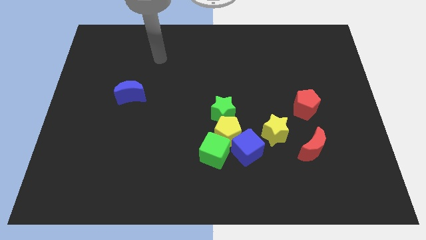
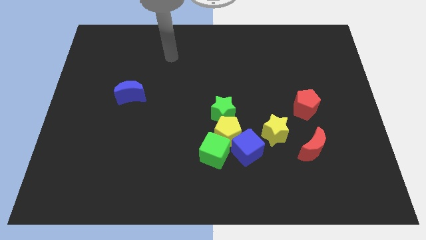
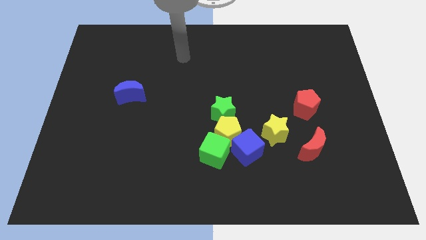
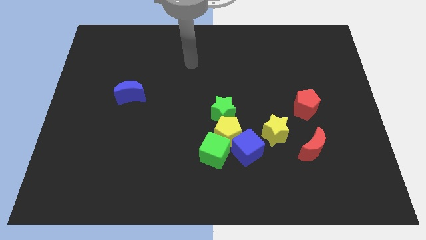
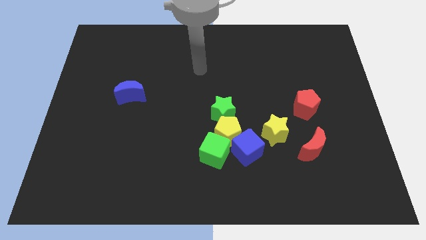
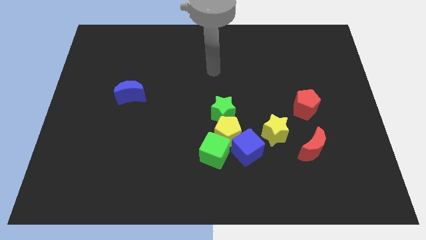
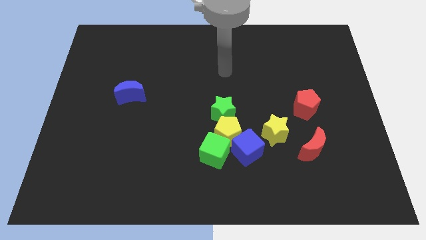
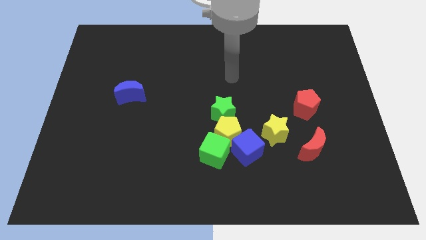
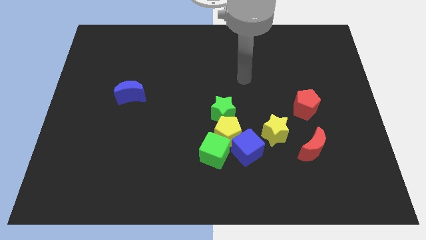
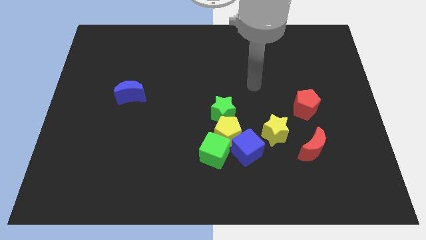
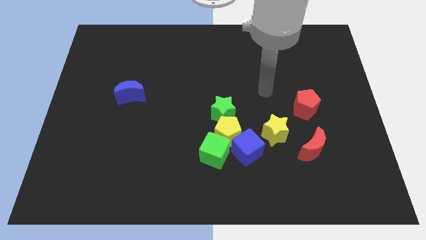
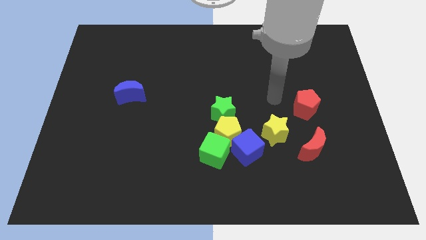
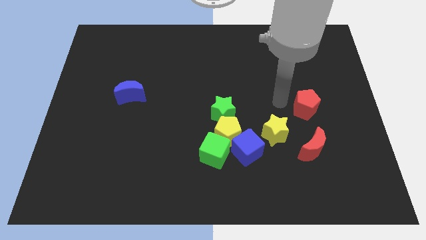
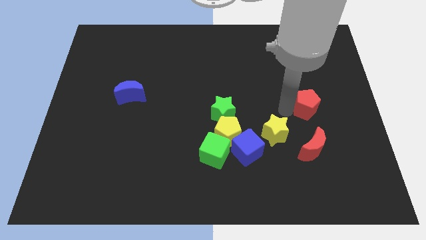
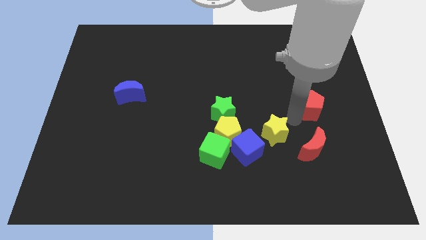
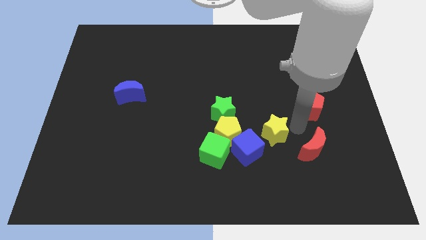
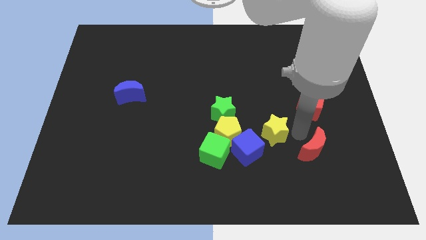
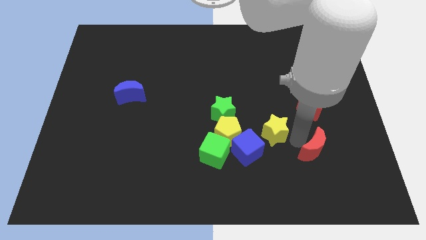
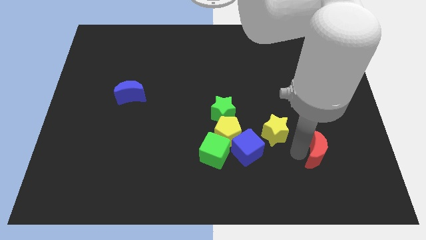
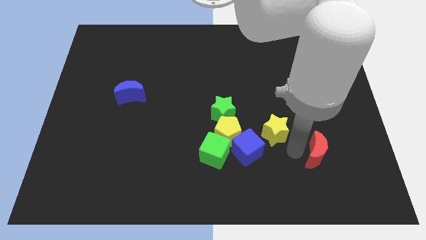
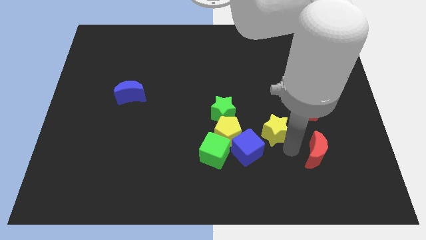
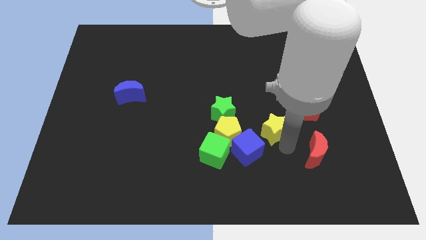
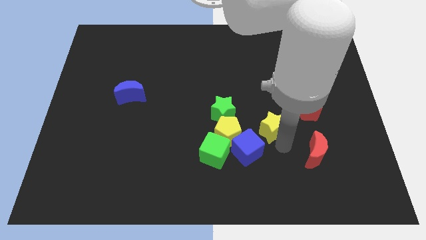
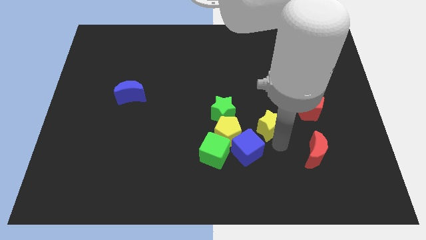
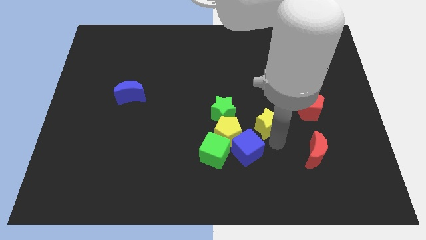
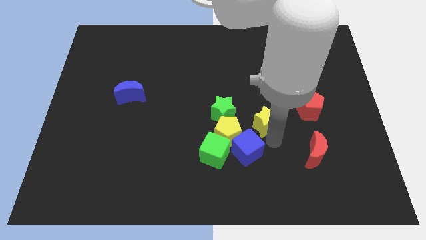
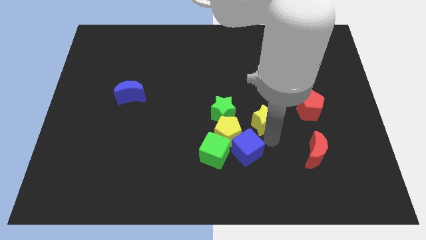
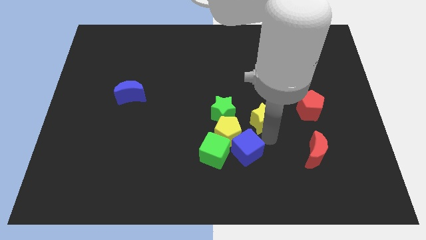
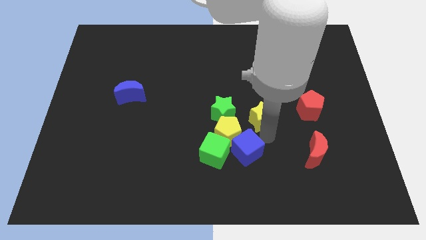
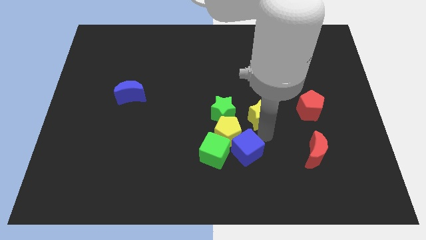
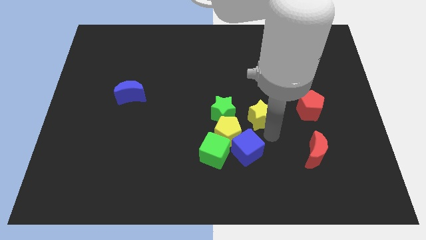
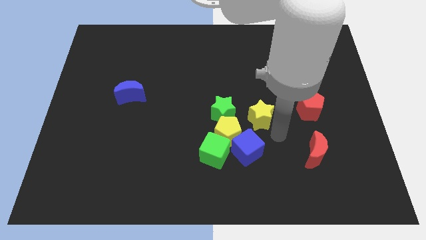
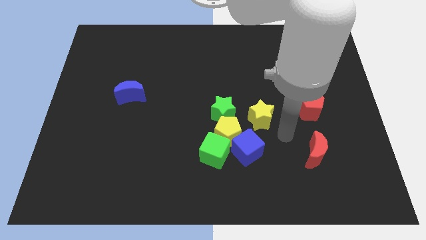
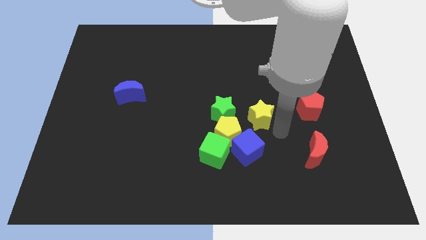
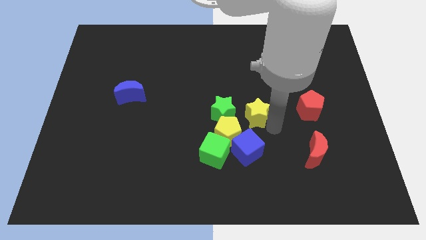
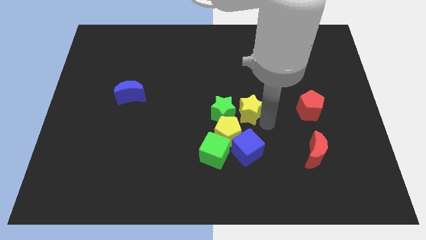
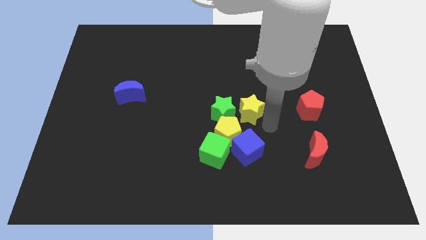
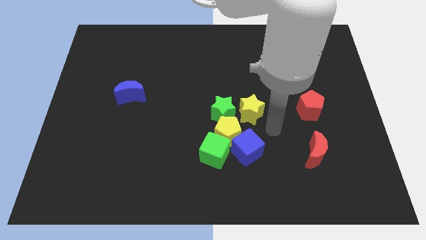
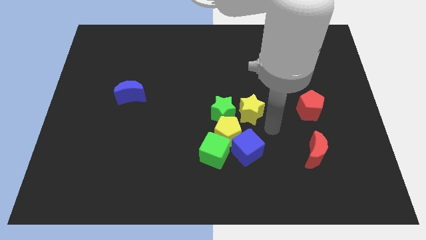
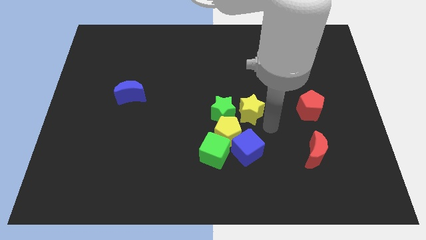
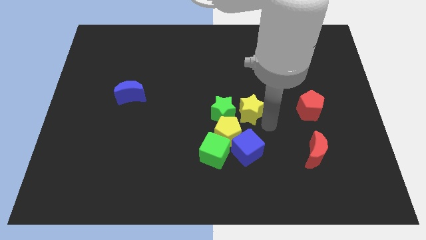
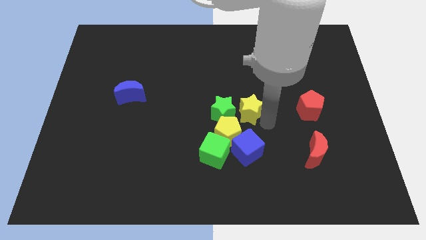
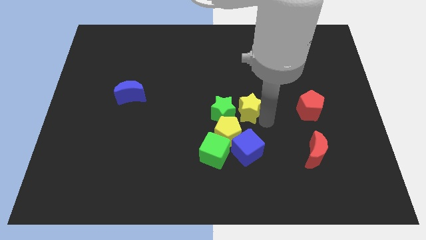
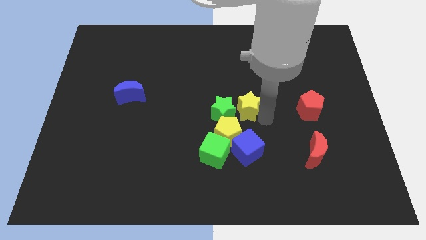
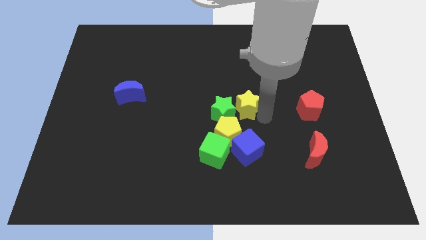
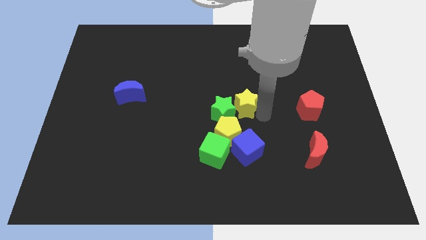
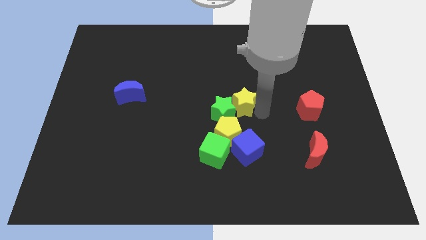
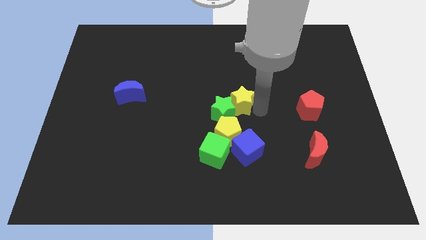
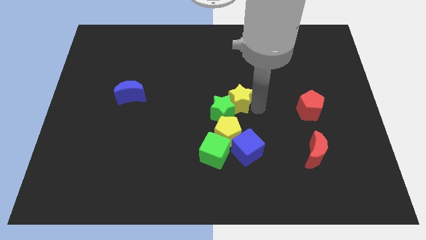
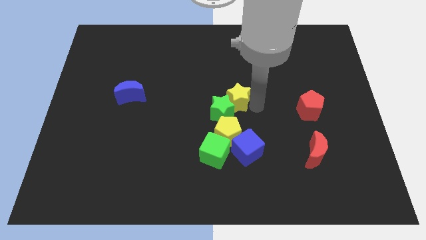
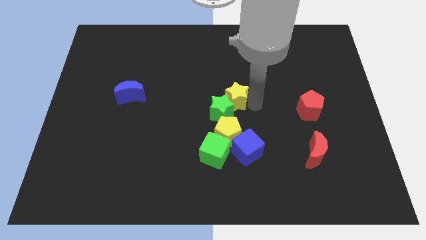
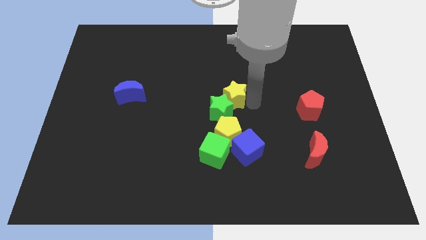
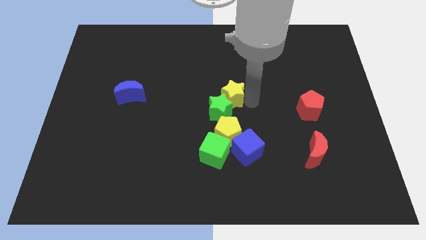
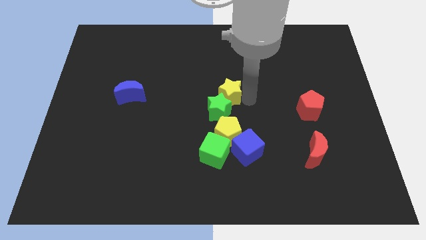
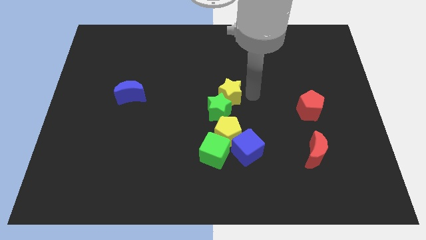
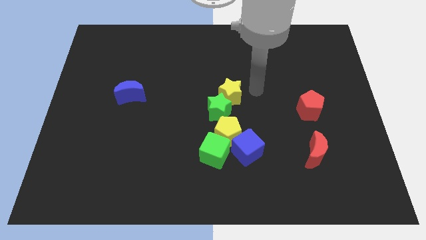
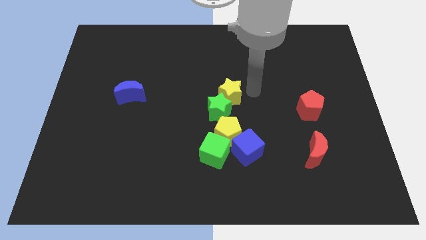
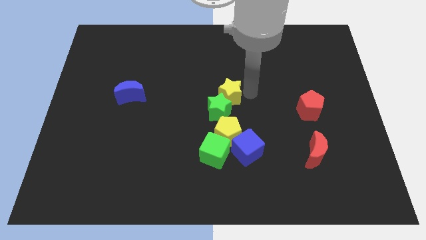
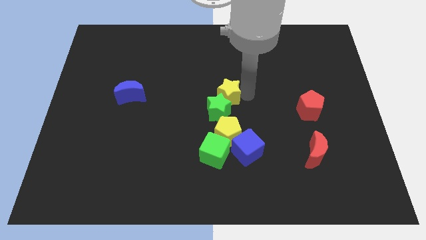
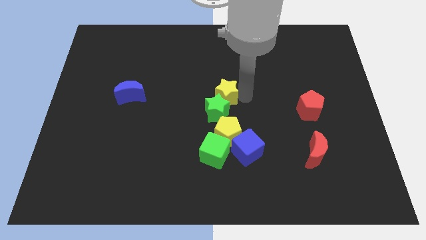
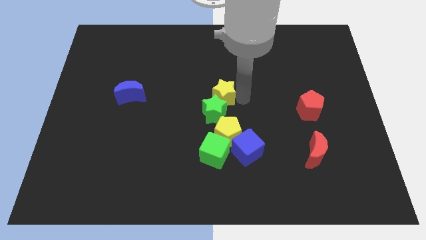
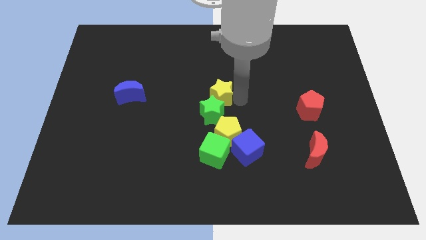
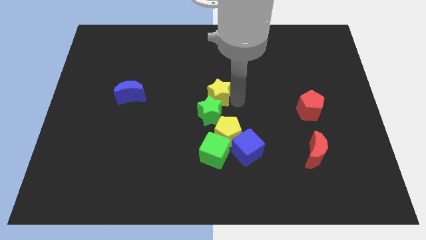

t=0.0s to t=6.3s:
move the yellow star to the left a little bit

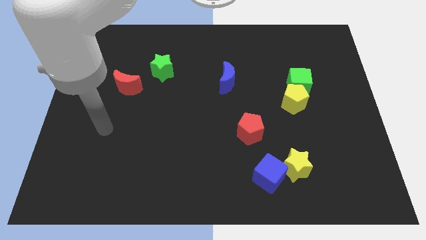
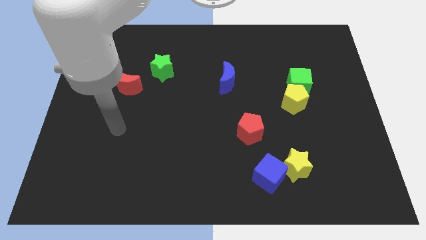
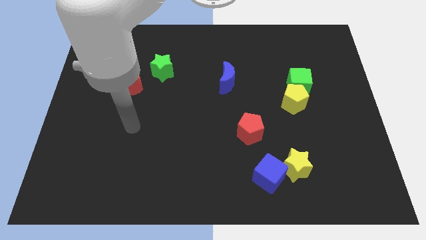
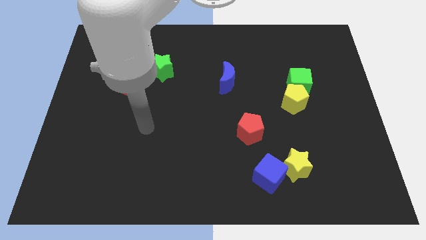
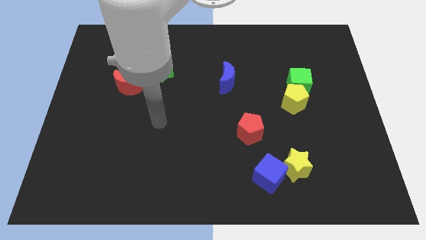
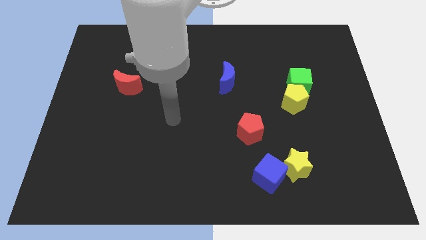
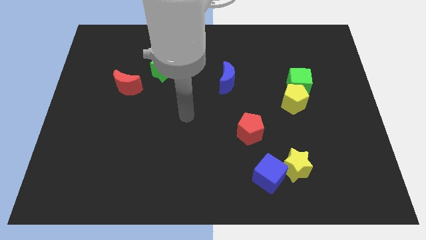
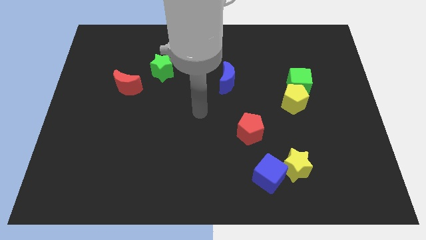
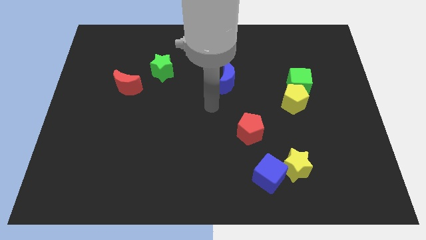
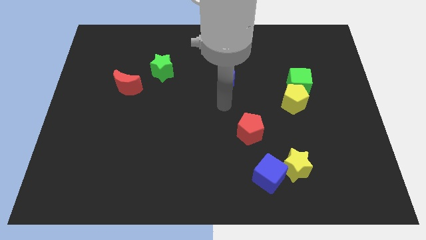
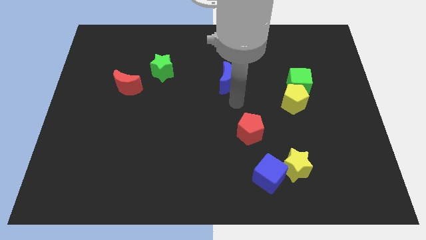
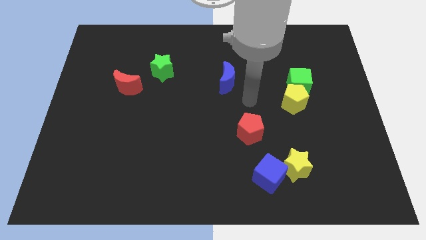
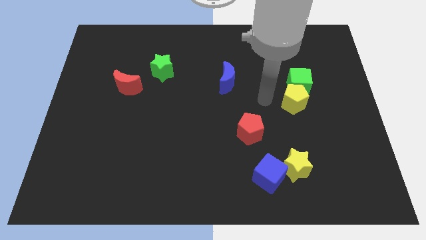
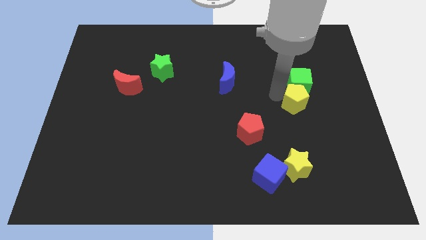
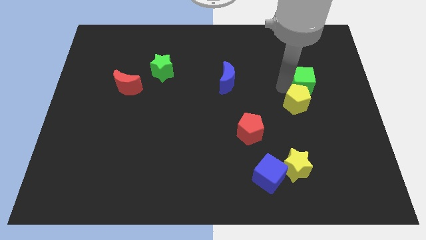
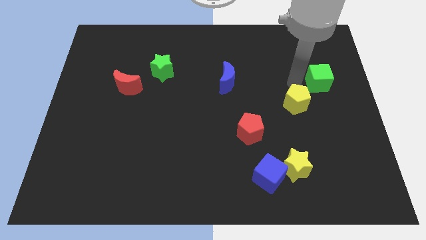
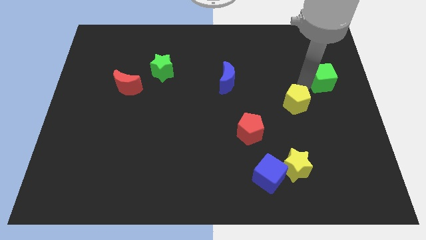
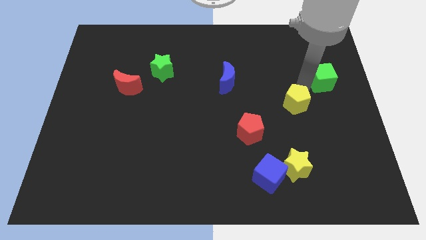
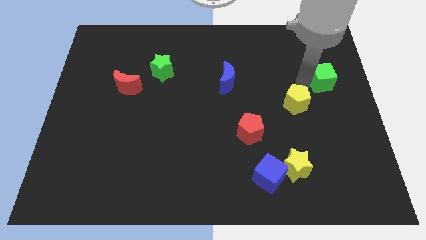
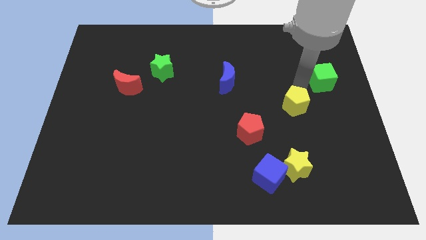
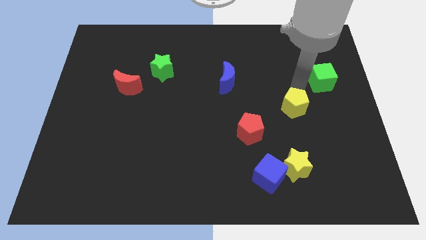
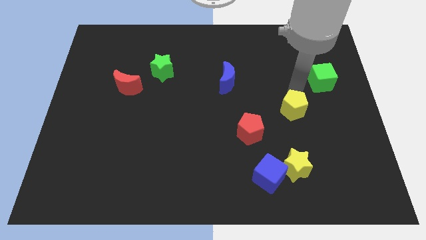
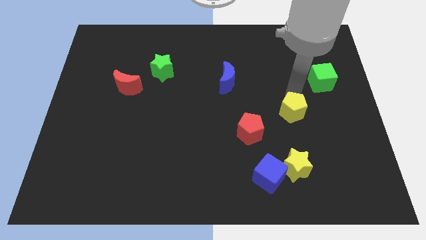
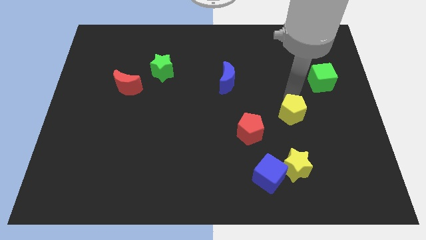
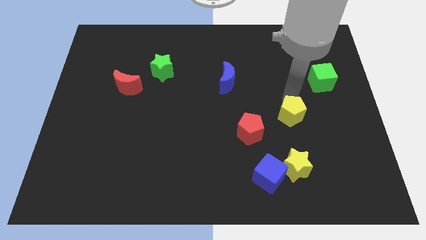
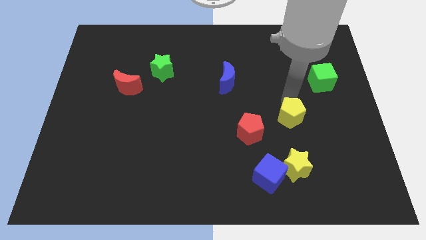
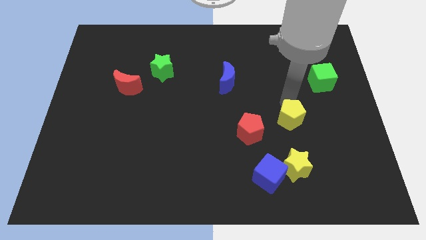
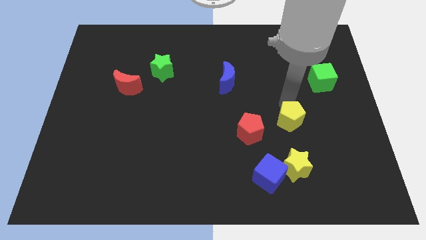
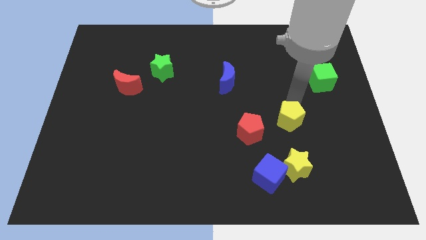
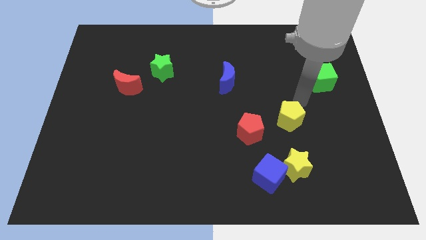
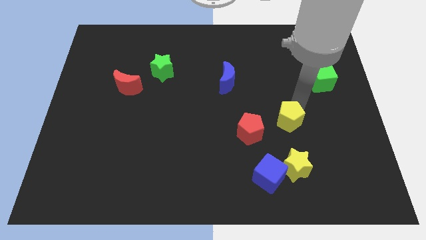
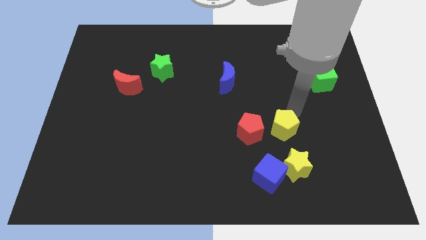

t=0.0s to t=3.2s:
slightly push the yellow pentagon downwards and then left
